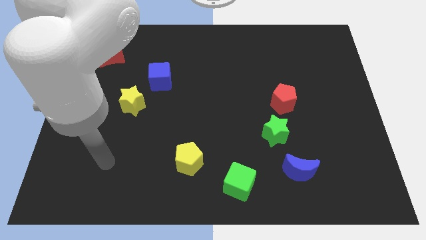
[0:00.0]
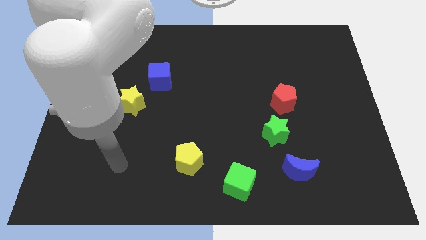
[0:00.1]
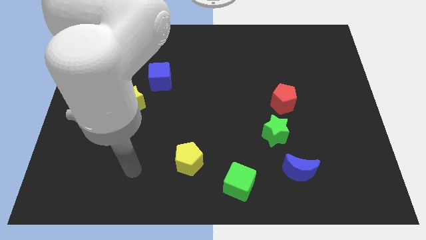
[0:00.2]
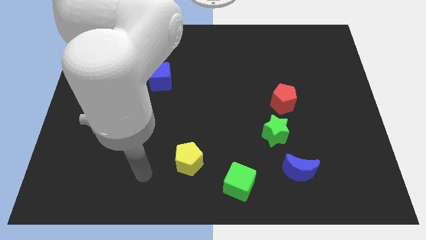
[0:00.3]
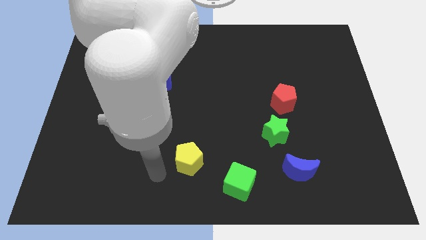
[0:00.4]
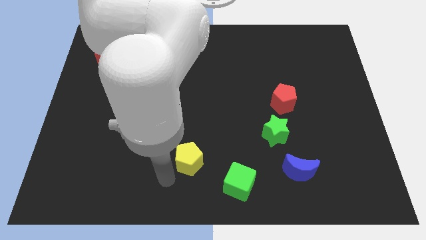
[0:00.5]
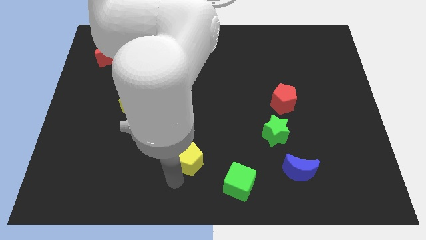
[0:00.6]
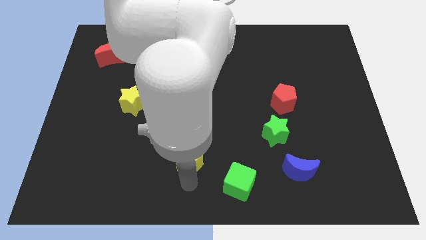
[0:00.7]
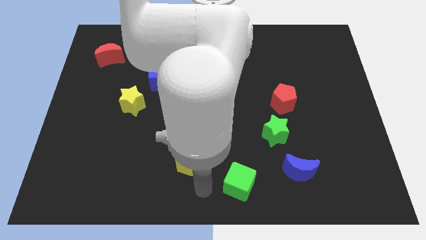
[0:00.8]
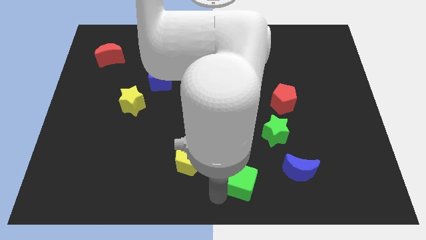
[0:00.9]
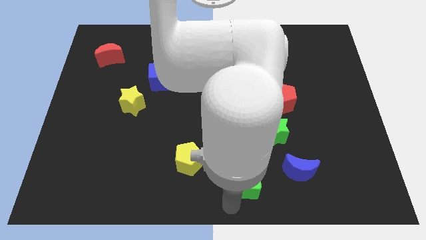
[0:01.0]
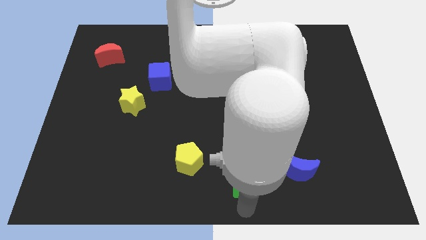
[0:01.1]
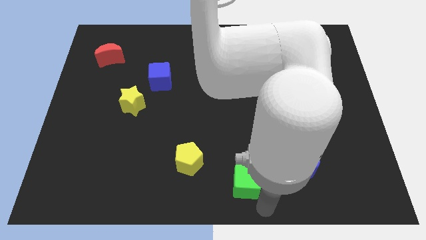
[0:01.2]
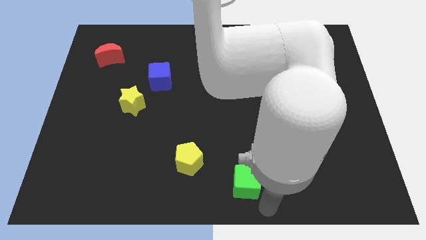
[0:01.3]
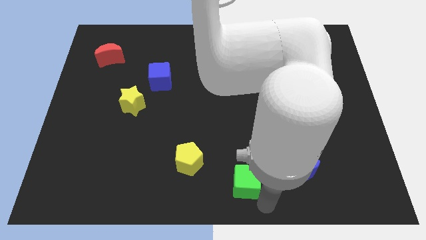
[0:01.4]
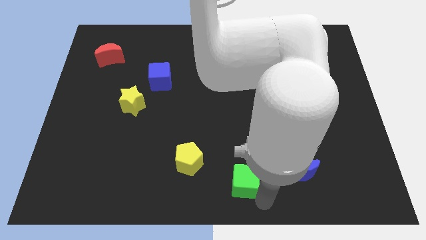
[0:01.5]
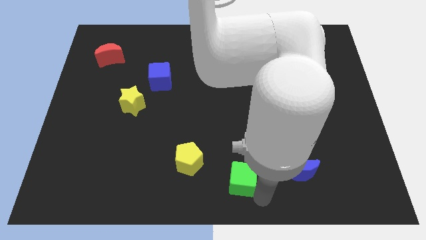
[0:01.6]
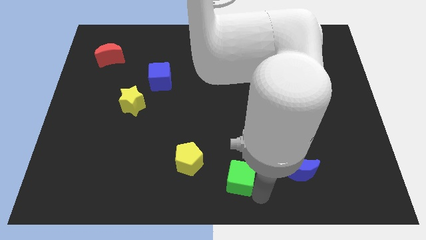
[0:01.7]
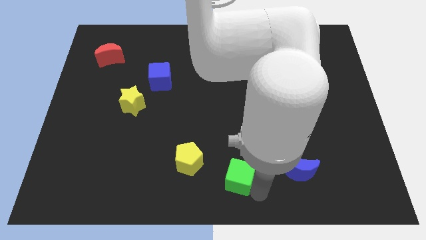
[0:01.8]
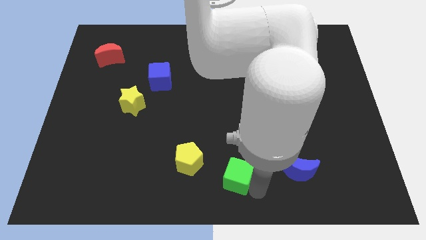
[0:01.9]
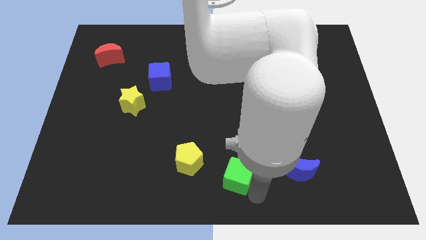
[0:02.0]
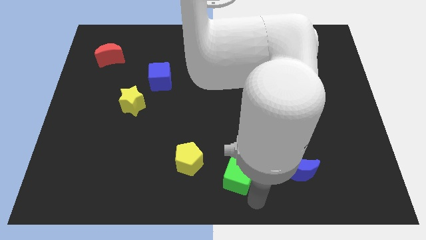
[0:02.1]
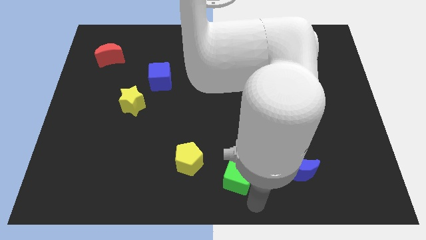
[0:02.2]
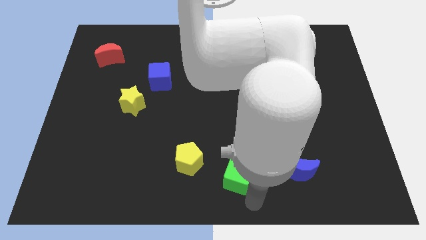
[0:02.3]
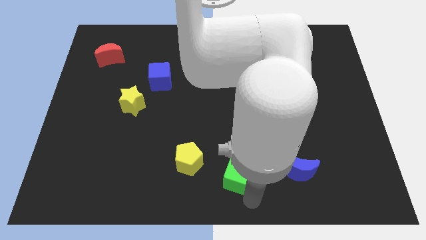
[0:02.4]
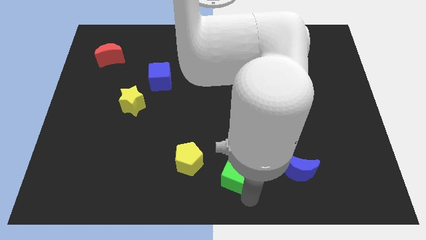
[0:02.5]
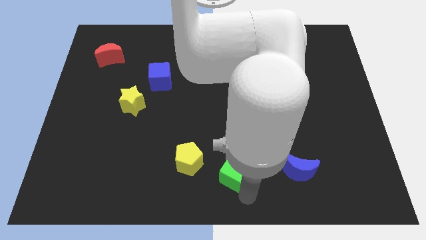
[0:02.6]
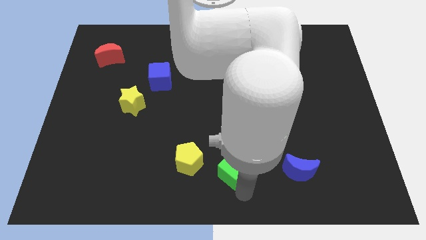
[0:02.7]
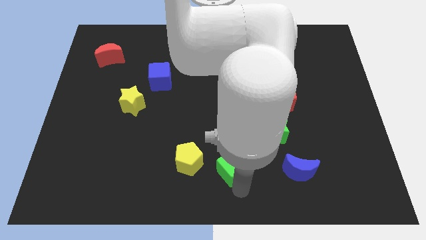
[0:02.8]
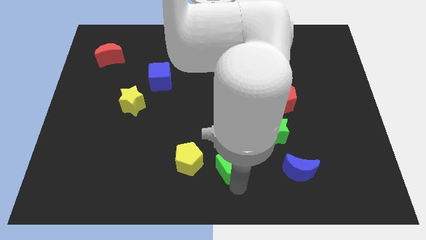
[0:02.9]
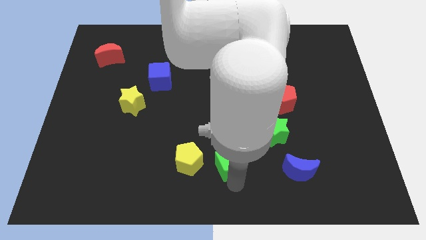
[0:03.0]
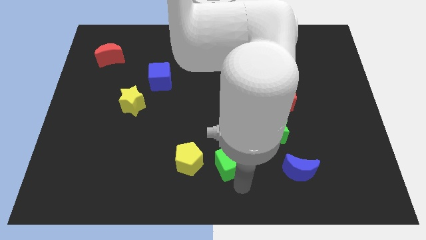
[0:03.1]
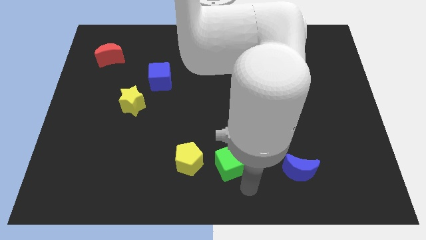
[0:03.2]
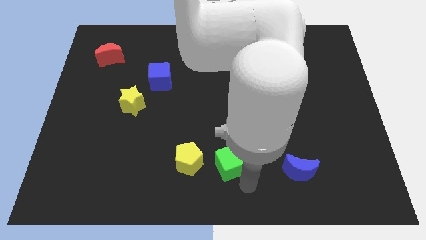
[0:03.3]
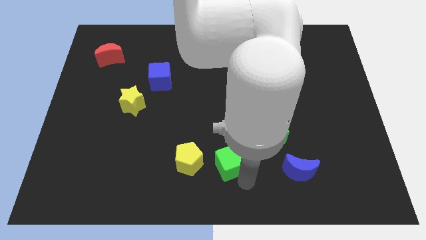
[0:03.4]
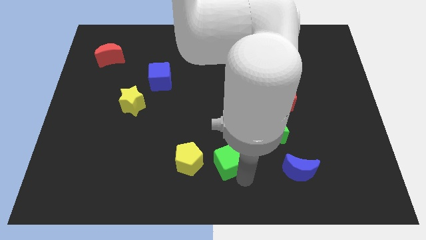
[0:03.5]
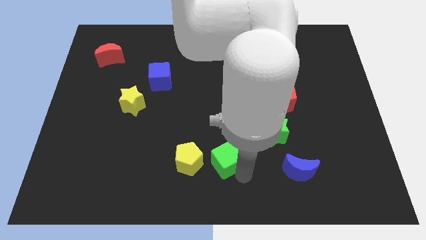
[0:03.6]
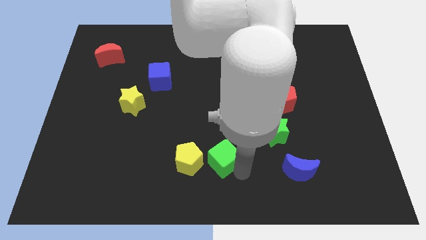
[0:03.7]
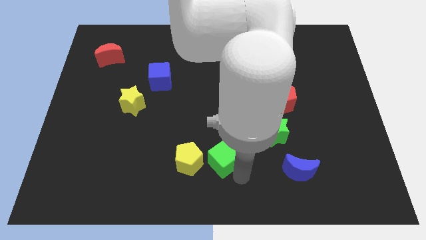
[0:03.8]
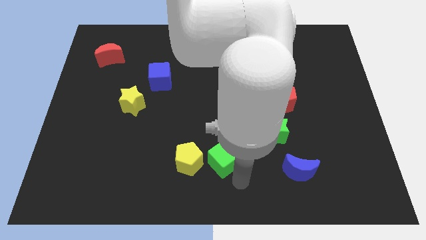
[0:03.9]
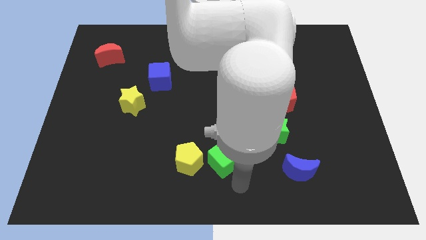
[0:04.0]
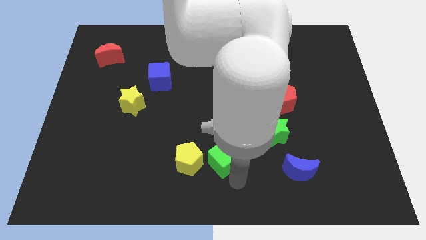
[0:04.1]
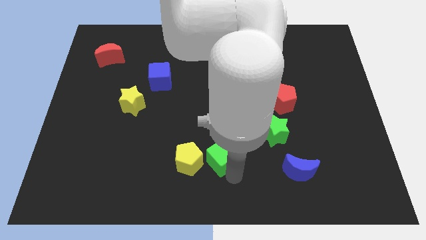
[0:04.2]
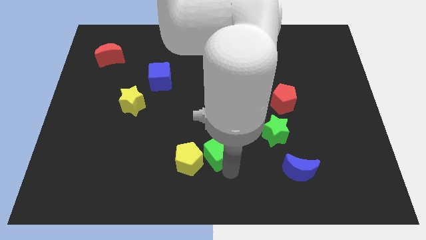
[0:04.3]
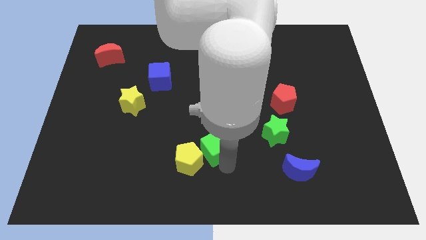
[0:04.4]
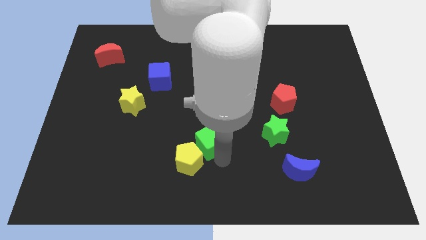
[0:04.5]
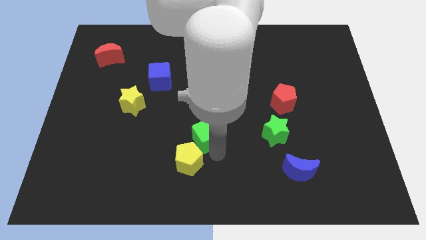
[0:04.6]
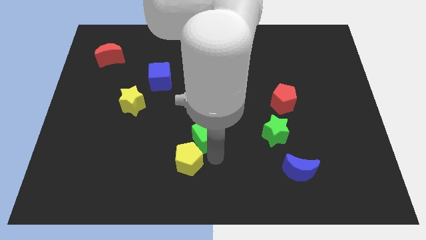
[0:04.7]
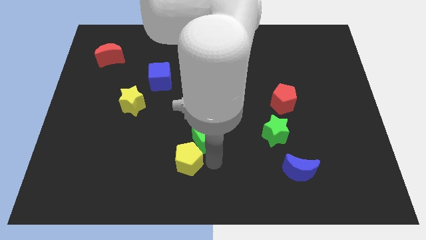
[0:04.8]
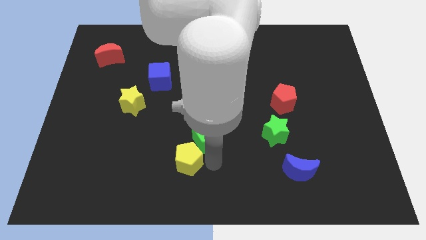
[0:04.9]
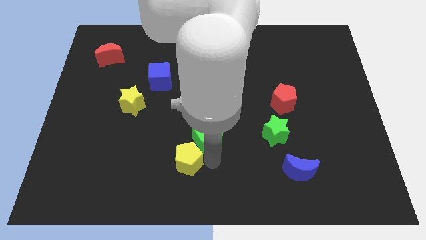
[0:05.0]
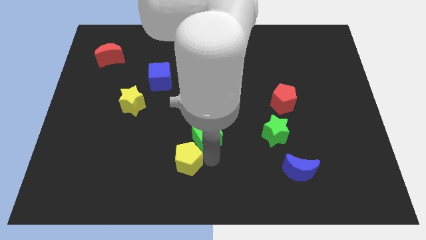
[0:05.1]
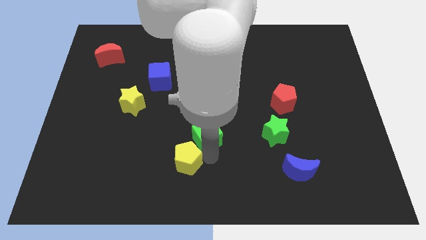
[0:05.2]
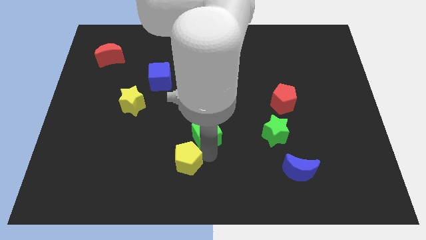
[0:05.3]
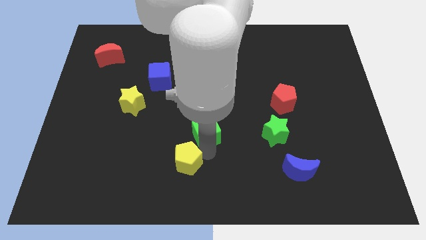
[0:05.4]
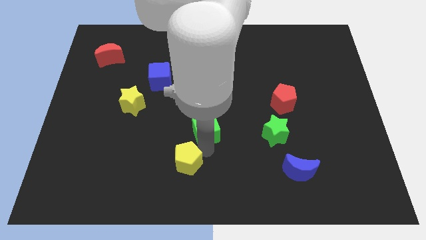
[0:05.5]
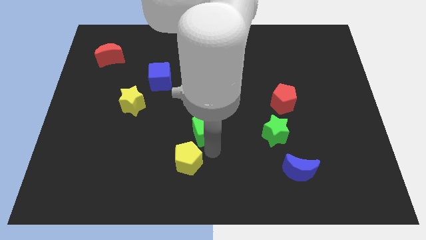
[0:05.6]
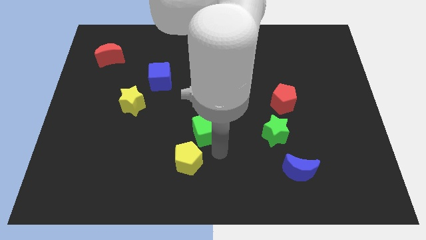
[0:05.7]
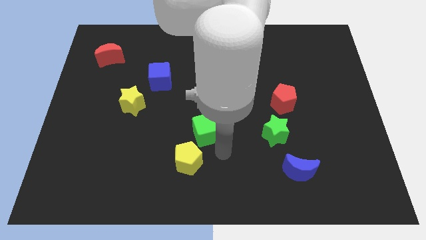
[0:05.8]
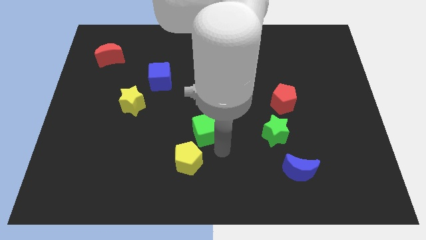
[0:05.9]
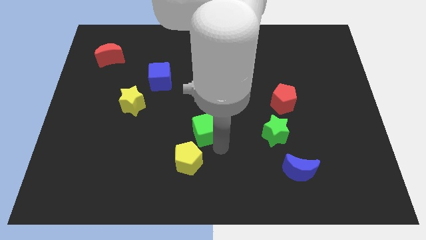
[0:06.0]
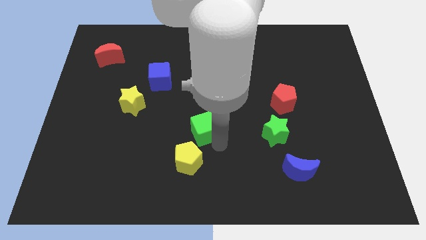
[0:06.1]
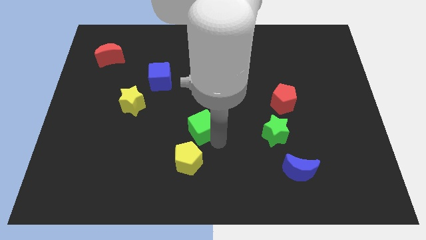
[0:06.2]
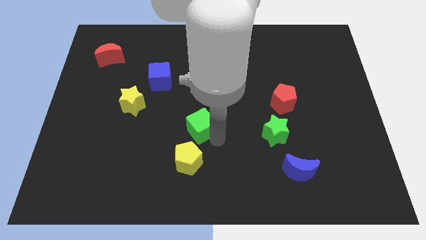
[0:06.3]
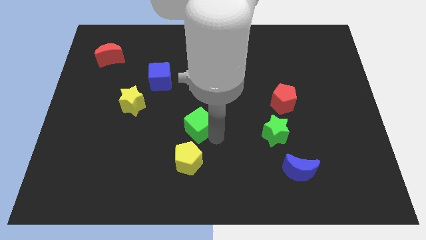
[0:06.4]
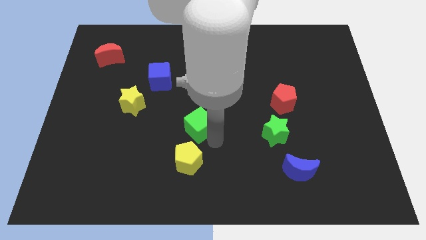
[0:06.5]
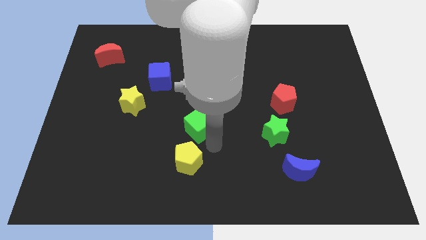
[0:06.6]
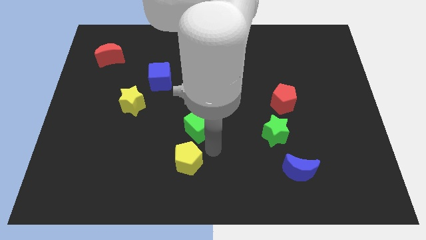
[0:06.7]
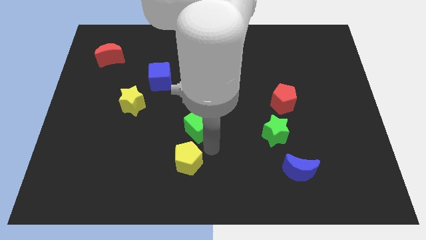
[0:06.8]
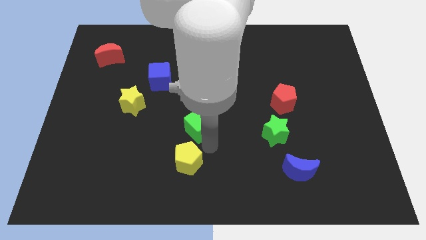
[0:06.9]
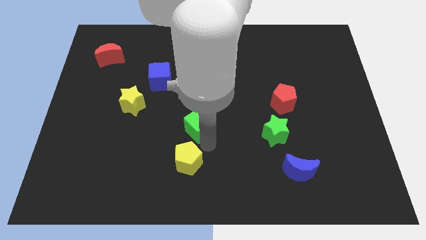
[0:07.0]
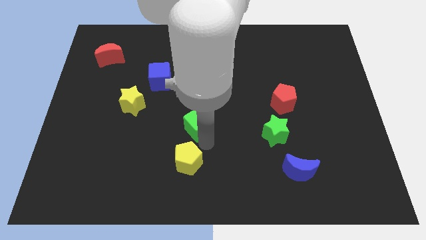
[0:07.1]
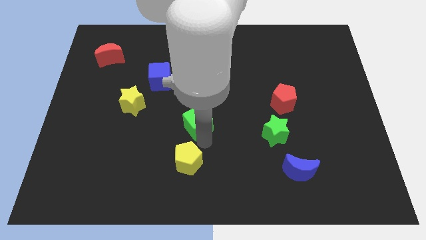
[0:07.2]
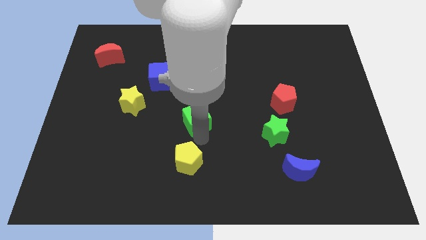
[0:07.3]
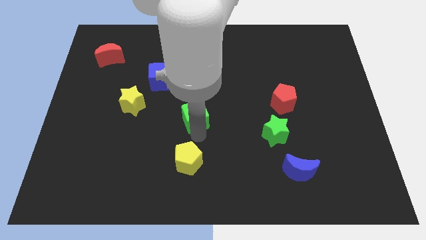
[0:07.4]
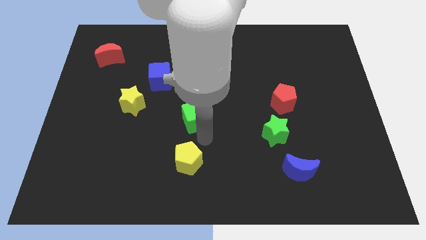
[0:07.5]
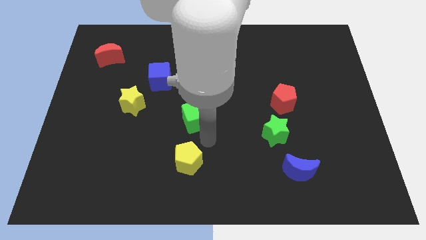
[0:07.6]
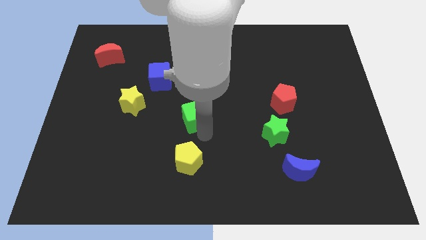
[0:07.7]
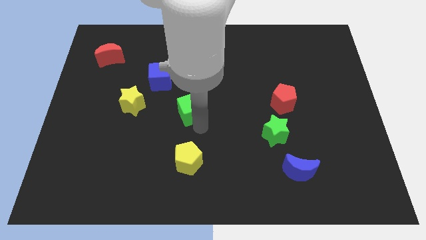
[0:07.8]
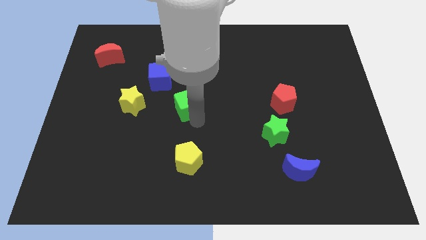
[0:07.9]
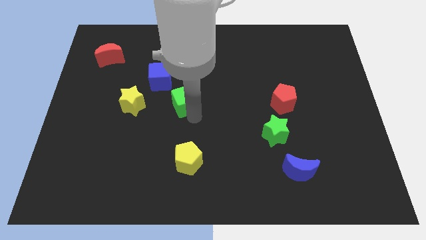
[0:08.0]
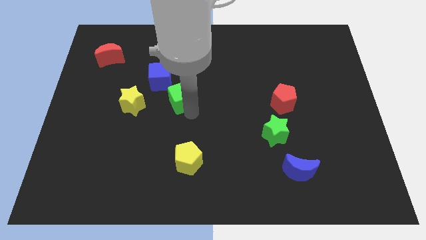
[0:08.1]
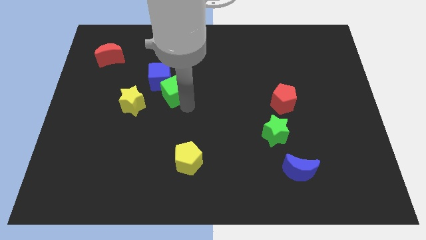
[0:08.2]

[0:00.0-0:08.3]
slide the green cube to the blue cube
